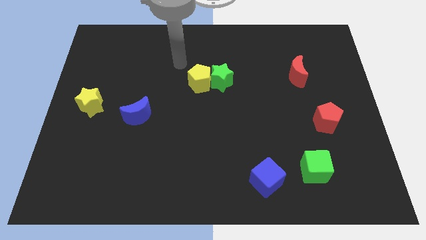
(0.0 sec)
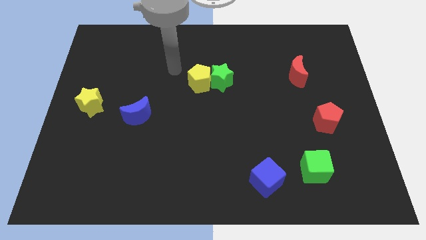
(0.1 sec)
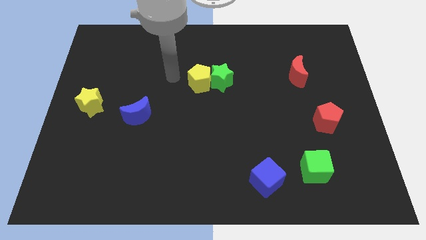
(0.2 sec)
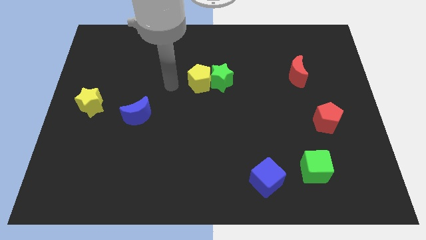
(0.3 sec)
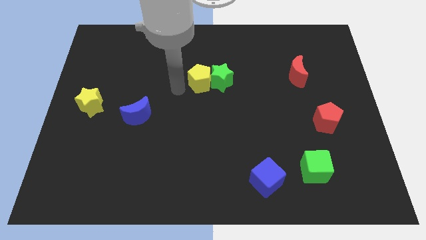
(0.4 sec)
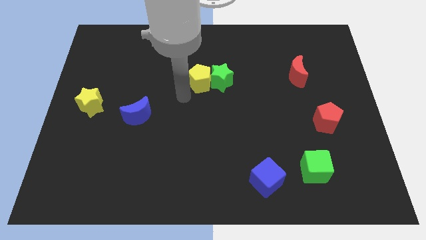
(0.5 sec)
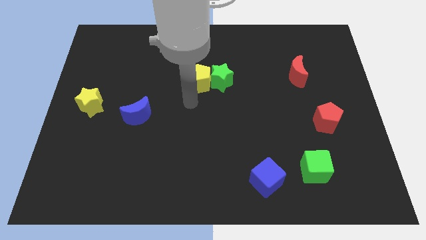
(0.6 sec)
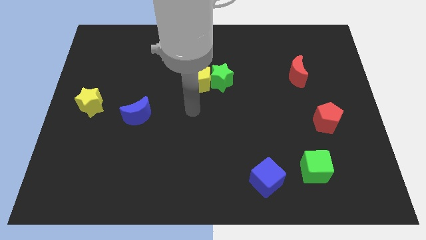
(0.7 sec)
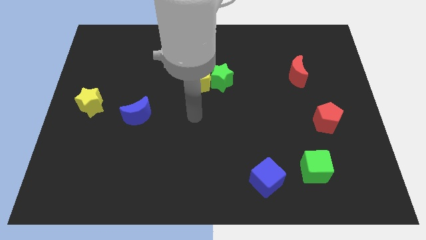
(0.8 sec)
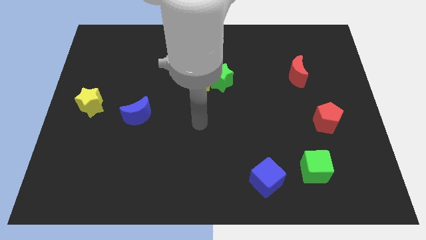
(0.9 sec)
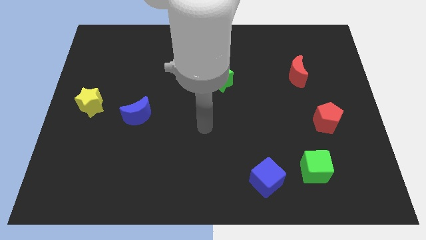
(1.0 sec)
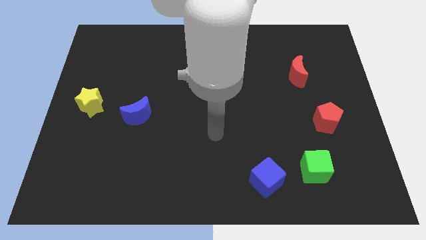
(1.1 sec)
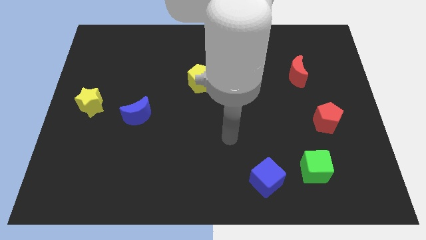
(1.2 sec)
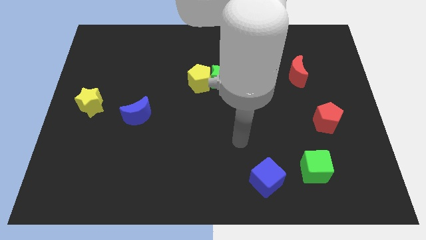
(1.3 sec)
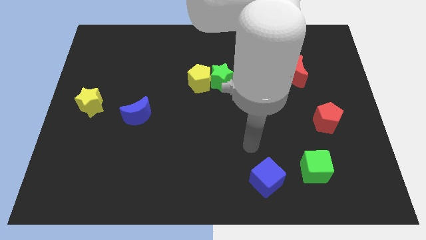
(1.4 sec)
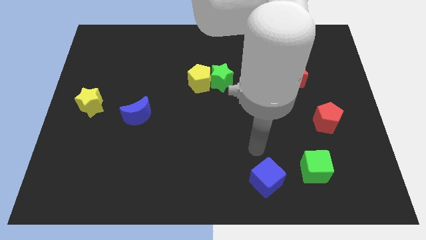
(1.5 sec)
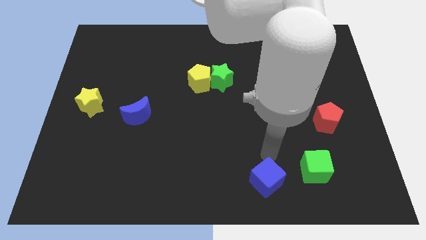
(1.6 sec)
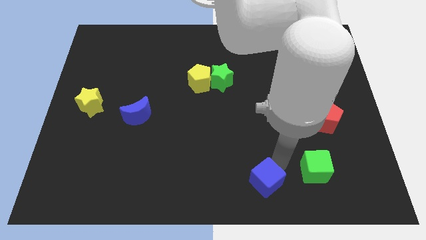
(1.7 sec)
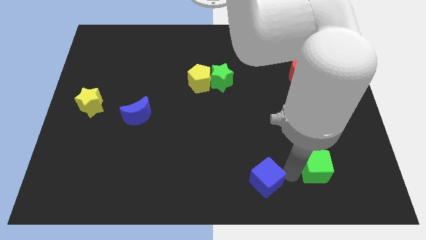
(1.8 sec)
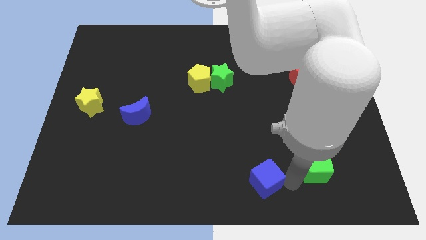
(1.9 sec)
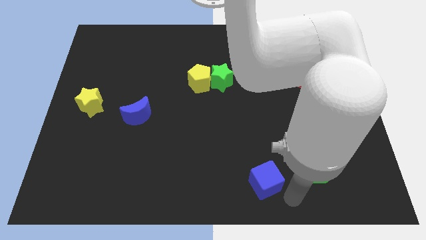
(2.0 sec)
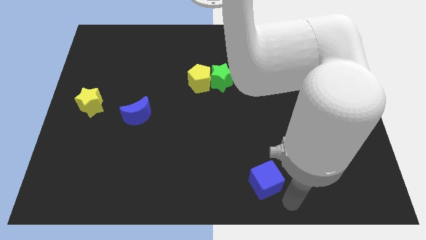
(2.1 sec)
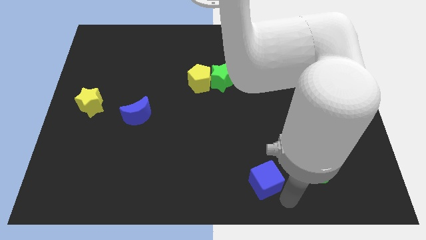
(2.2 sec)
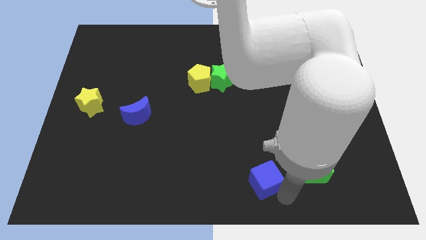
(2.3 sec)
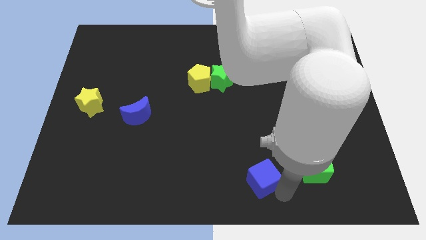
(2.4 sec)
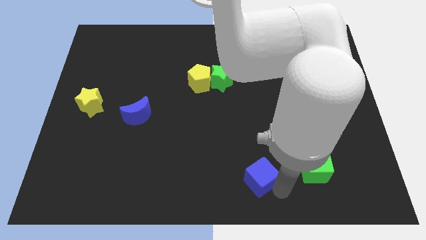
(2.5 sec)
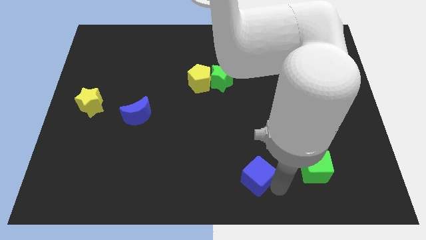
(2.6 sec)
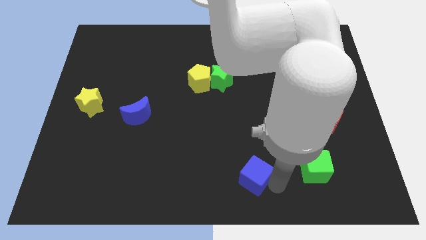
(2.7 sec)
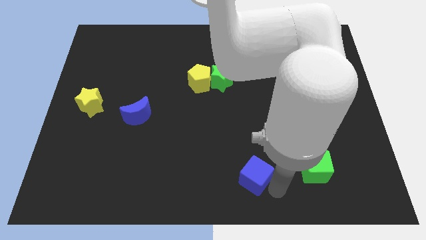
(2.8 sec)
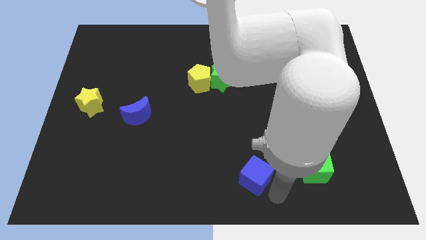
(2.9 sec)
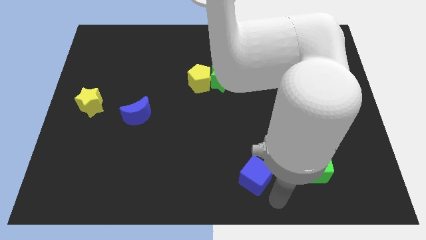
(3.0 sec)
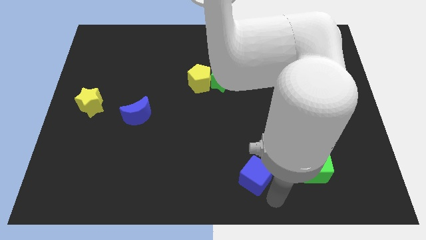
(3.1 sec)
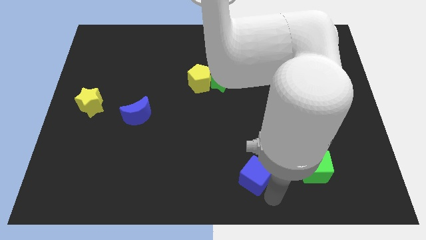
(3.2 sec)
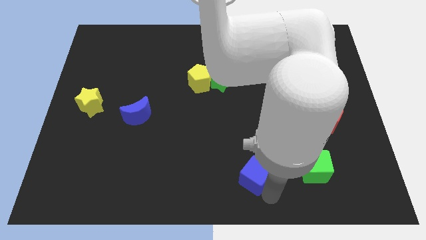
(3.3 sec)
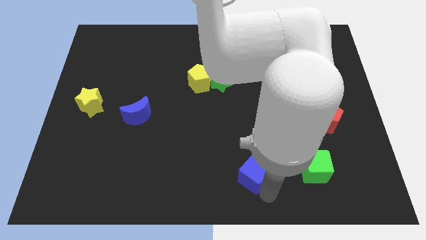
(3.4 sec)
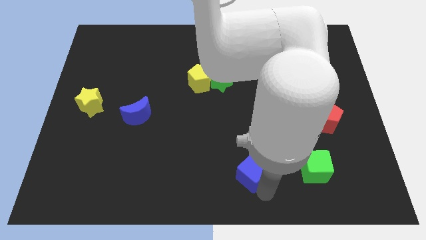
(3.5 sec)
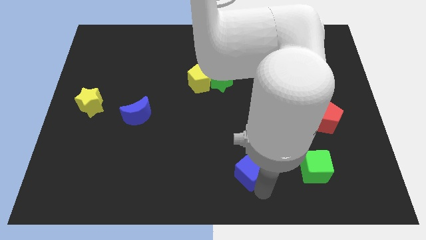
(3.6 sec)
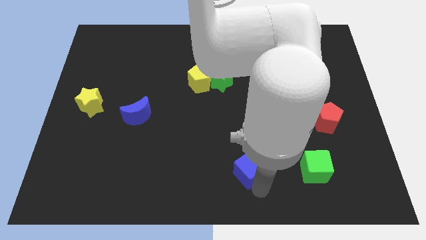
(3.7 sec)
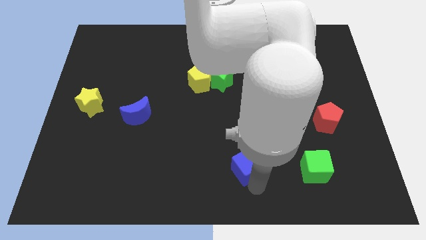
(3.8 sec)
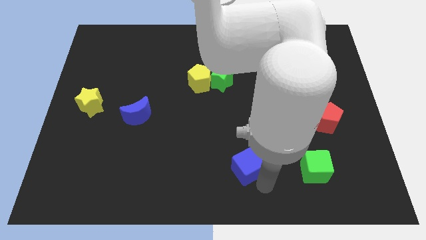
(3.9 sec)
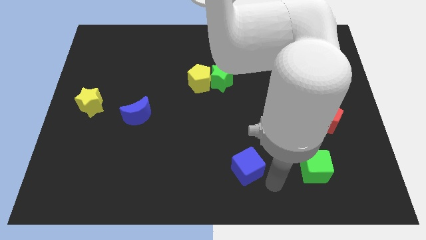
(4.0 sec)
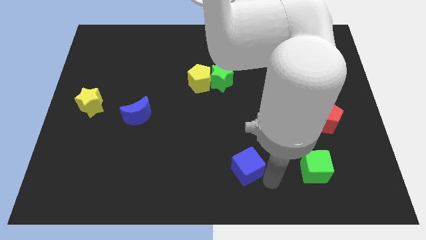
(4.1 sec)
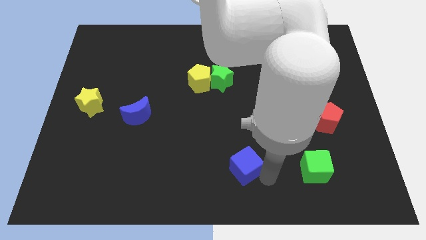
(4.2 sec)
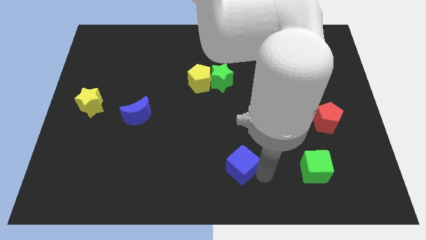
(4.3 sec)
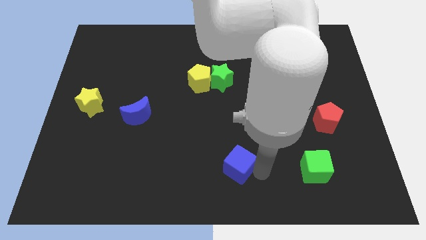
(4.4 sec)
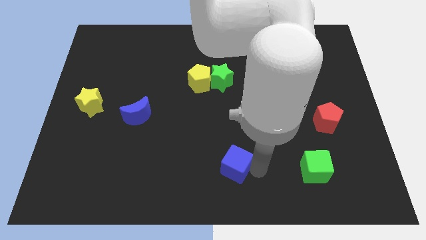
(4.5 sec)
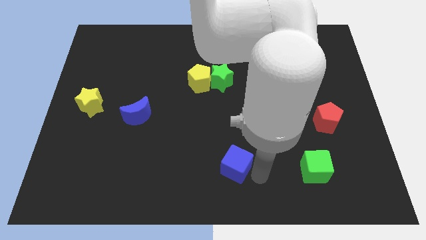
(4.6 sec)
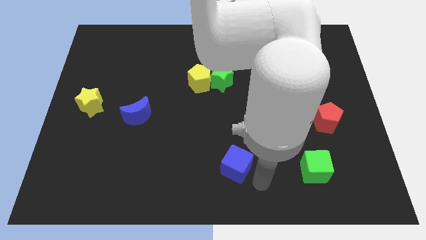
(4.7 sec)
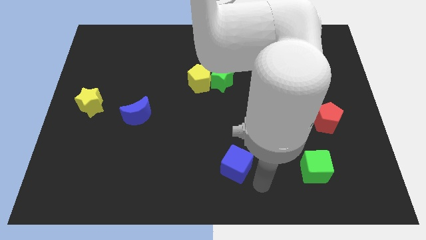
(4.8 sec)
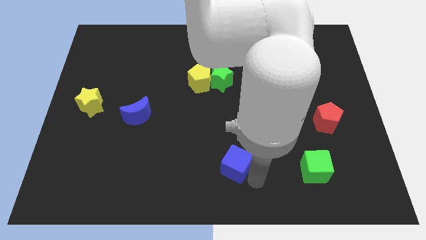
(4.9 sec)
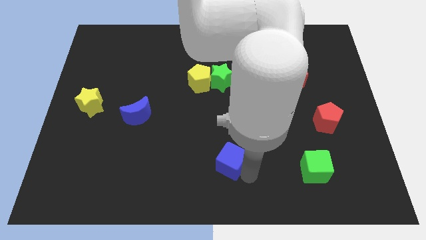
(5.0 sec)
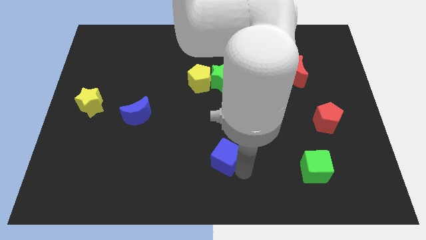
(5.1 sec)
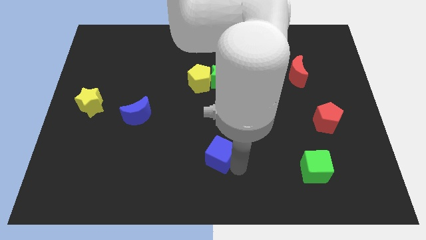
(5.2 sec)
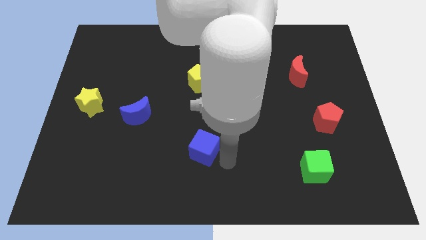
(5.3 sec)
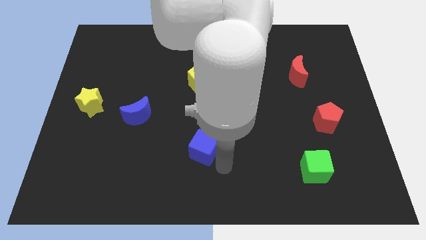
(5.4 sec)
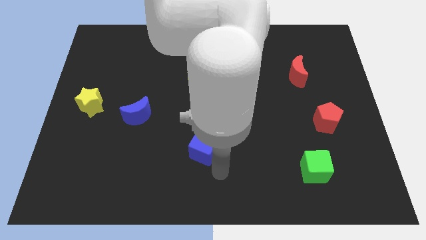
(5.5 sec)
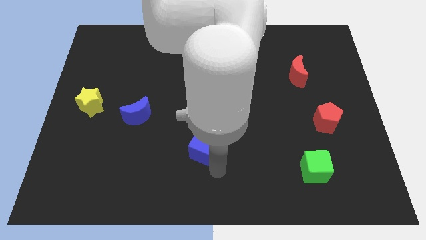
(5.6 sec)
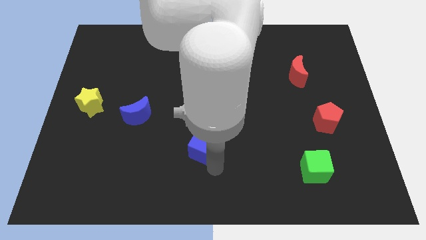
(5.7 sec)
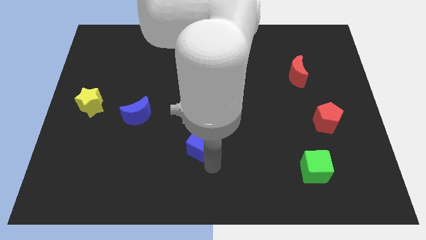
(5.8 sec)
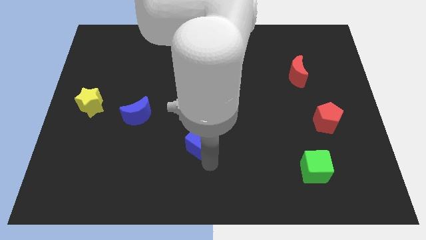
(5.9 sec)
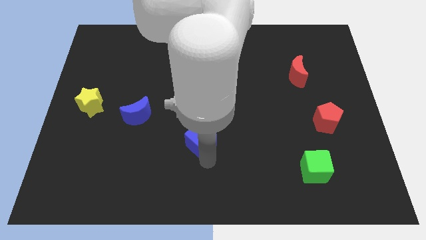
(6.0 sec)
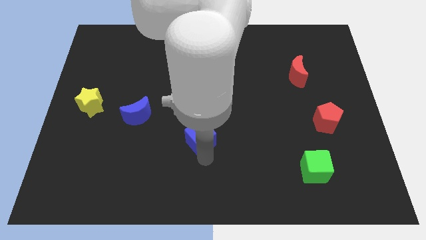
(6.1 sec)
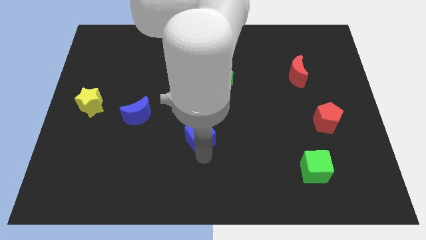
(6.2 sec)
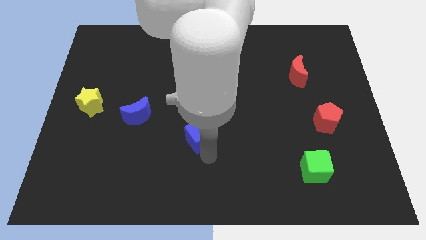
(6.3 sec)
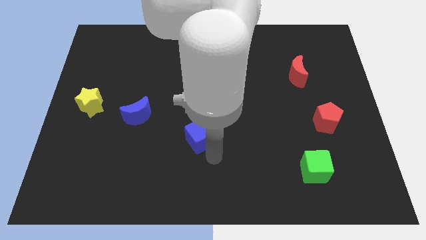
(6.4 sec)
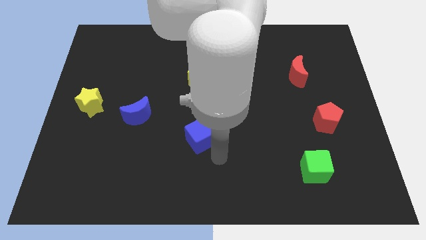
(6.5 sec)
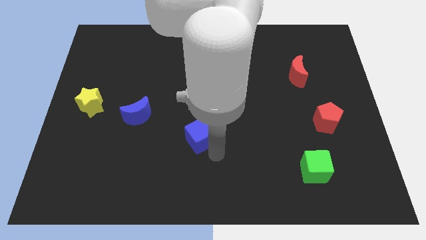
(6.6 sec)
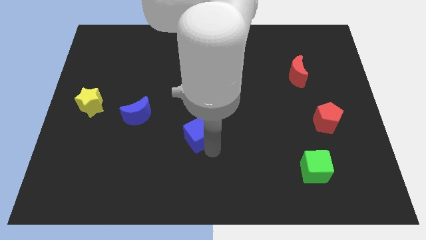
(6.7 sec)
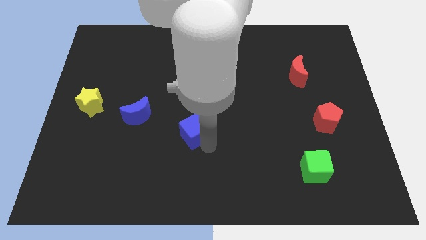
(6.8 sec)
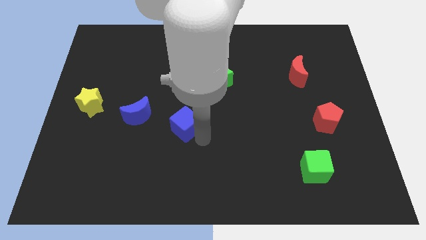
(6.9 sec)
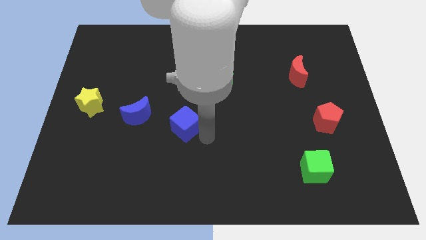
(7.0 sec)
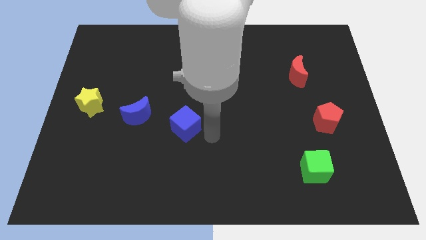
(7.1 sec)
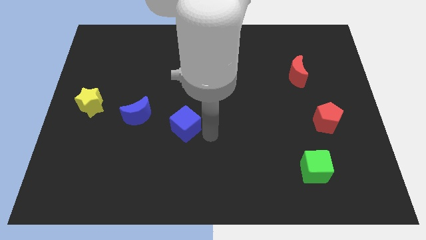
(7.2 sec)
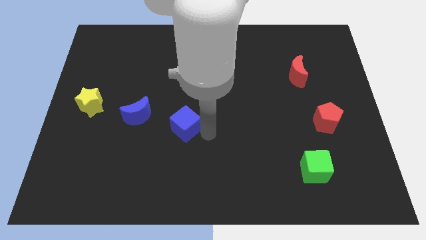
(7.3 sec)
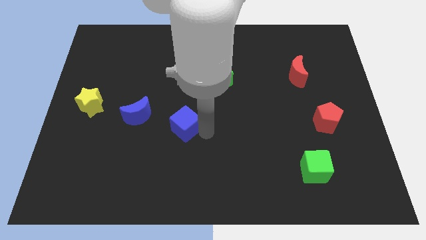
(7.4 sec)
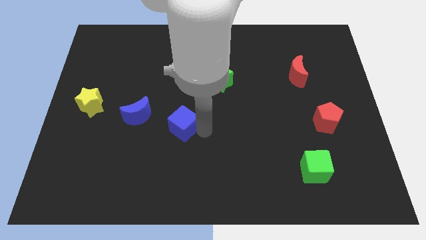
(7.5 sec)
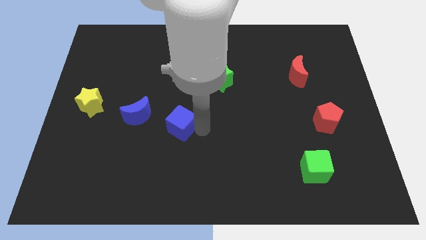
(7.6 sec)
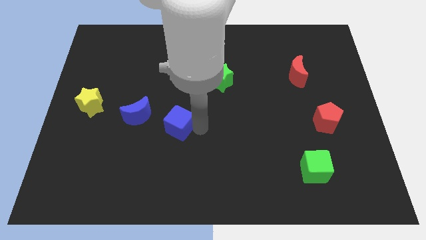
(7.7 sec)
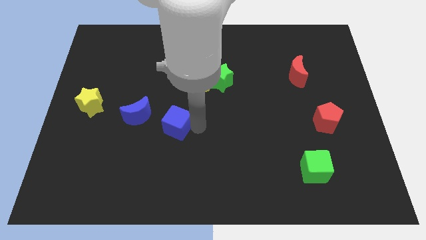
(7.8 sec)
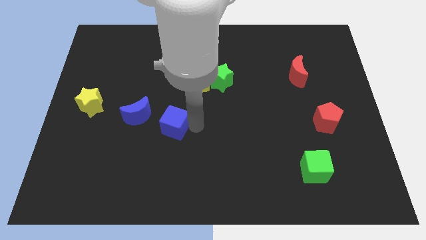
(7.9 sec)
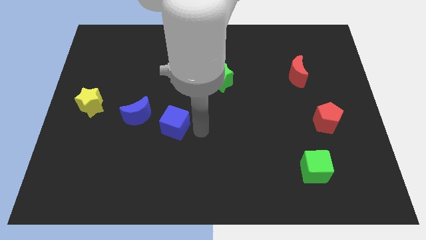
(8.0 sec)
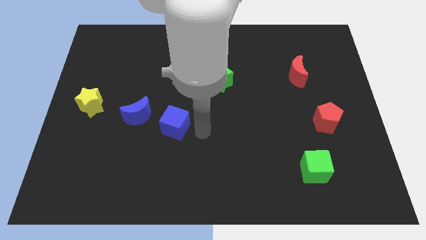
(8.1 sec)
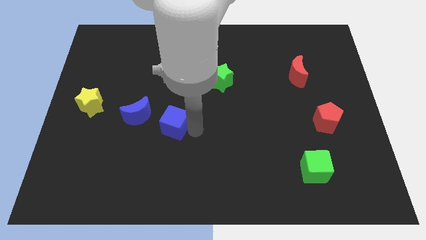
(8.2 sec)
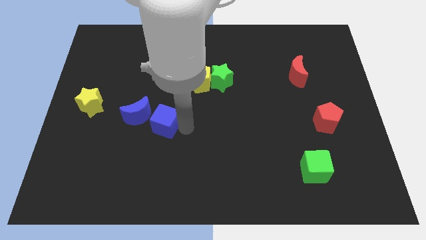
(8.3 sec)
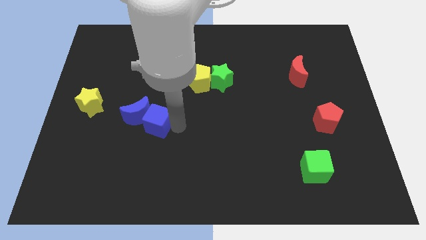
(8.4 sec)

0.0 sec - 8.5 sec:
push the blue cube close to the blue moon
